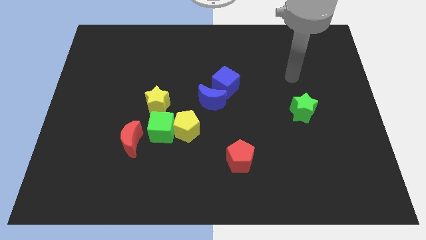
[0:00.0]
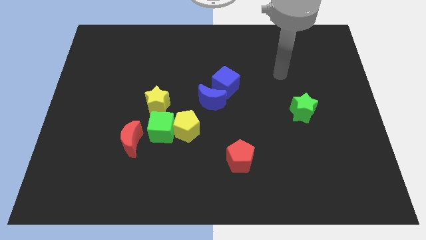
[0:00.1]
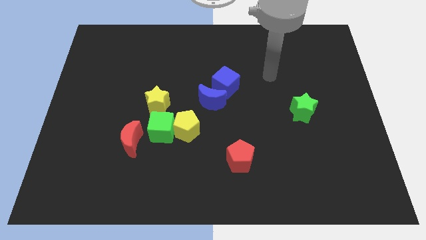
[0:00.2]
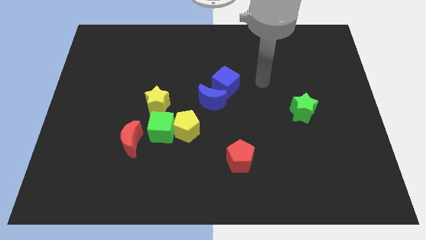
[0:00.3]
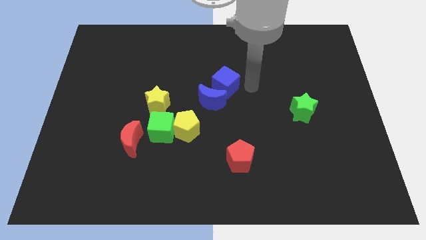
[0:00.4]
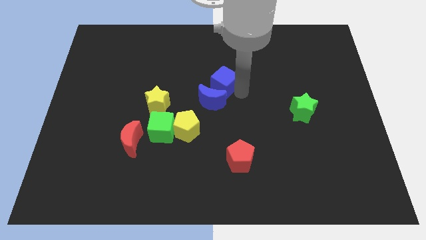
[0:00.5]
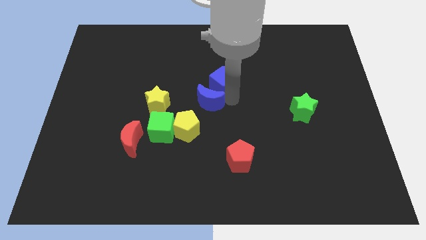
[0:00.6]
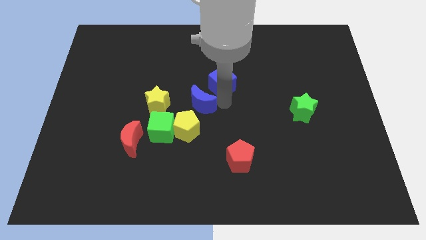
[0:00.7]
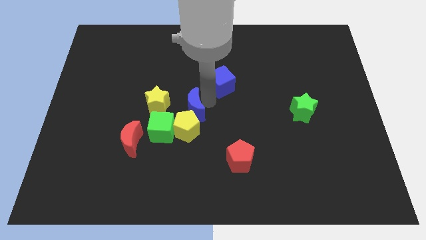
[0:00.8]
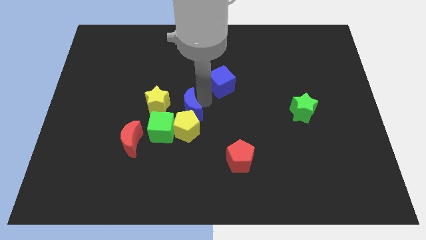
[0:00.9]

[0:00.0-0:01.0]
pull the blue cube apart from the blue moon

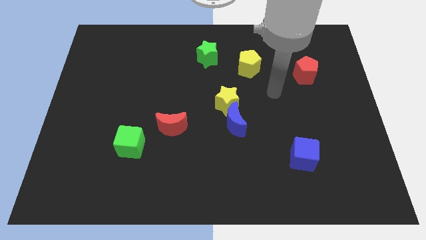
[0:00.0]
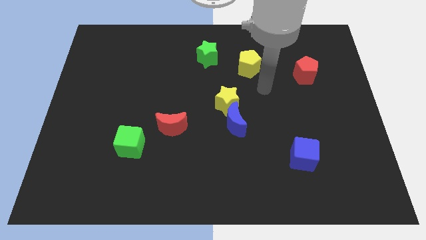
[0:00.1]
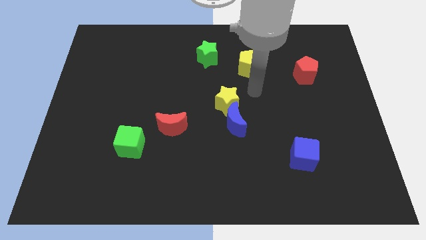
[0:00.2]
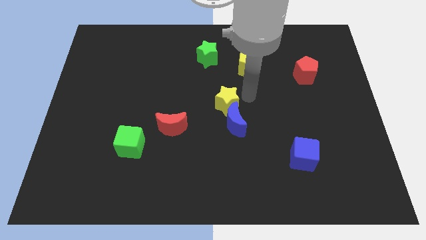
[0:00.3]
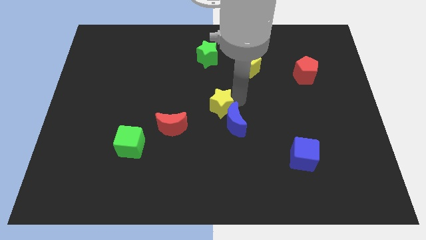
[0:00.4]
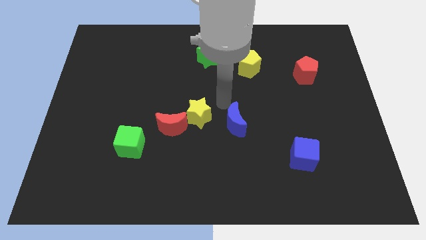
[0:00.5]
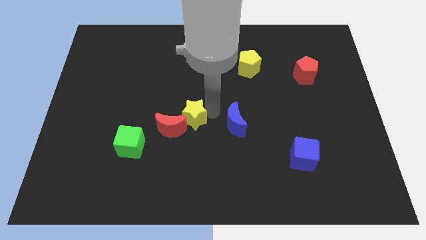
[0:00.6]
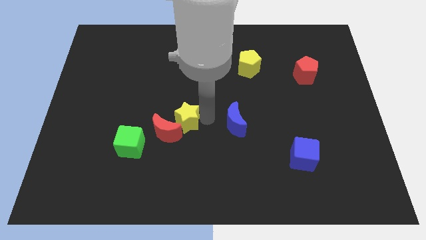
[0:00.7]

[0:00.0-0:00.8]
move the blue moon away from the yellow star

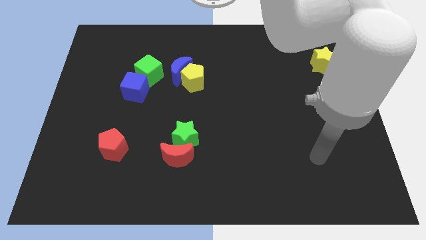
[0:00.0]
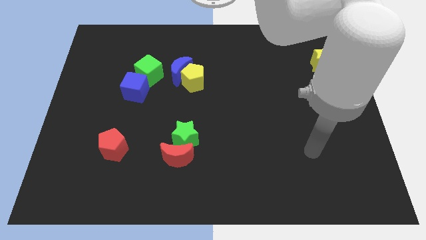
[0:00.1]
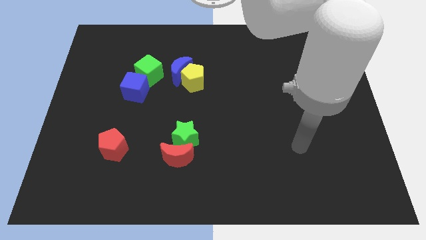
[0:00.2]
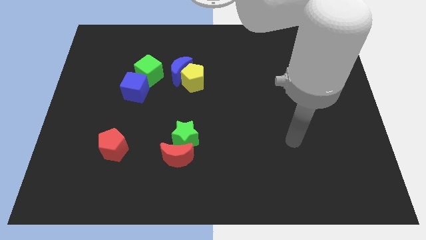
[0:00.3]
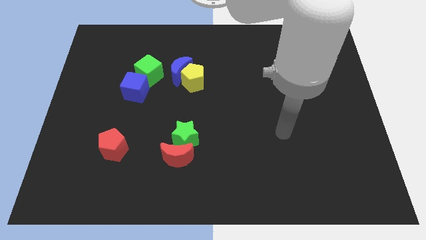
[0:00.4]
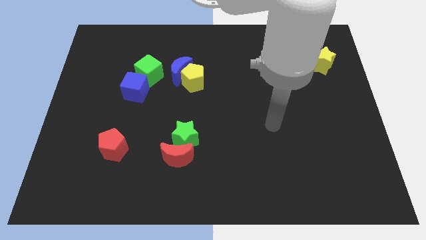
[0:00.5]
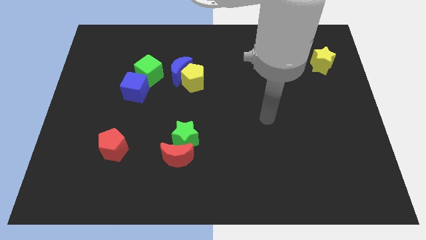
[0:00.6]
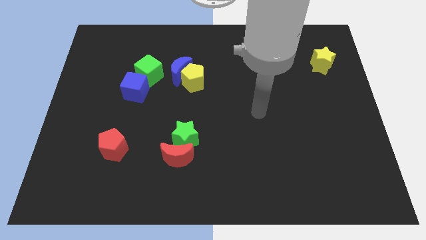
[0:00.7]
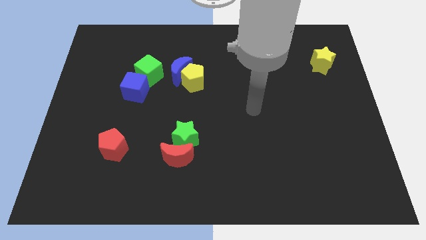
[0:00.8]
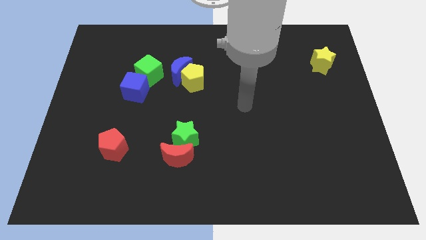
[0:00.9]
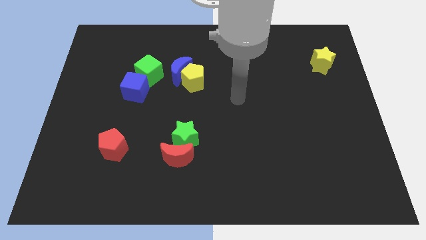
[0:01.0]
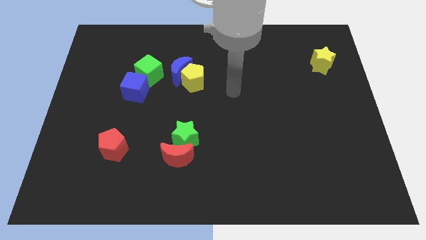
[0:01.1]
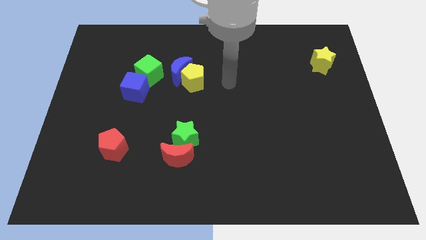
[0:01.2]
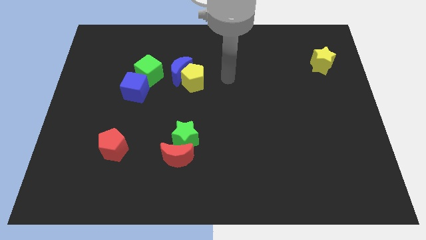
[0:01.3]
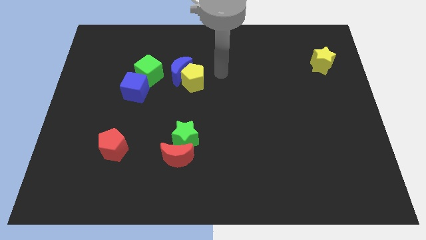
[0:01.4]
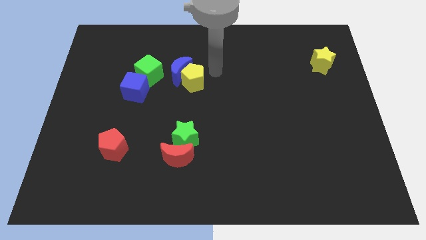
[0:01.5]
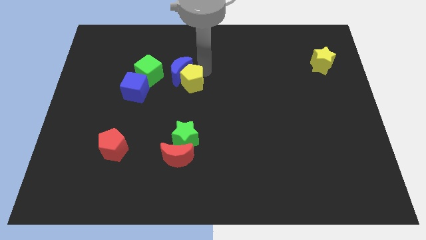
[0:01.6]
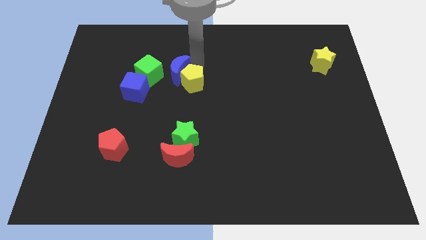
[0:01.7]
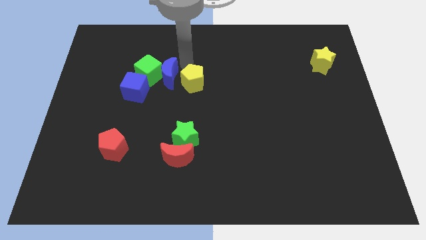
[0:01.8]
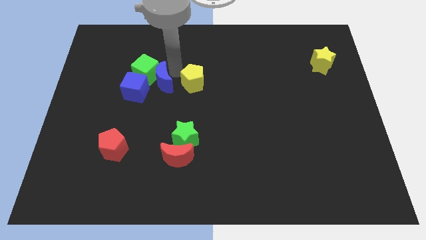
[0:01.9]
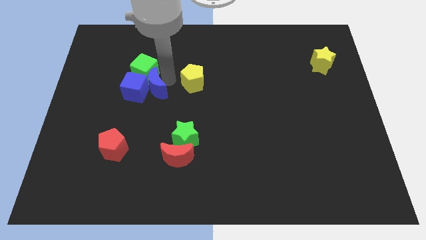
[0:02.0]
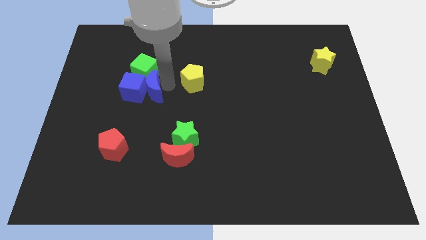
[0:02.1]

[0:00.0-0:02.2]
move the yellow pentagon away from the blue moon

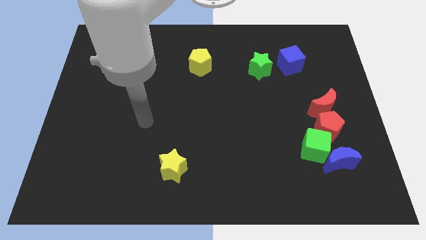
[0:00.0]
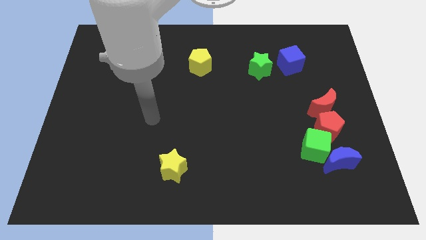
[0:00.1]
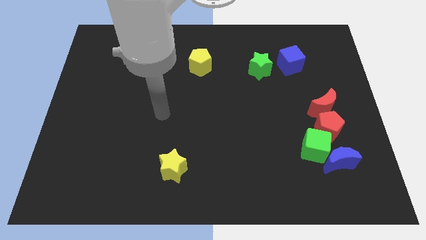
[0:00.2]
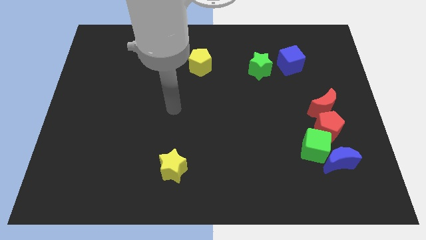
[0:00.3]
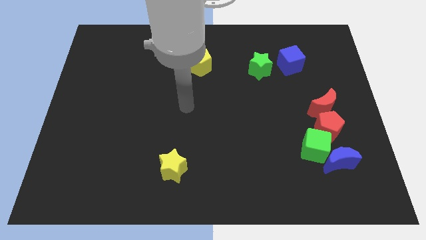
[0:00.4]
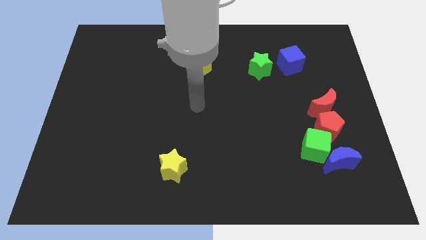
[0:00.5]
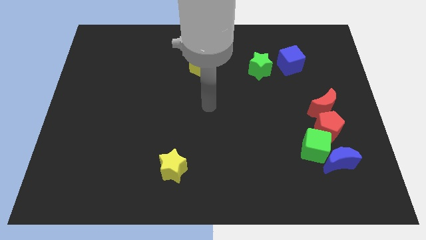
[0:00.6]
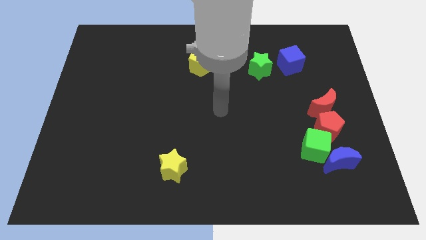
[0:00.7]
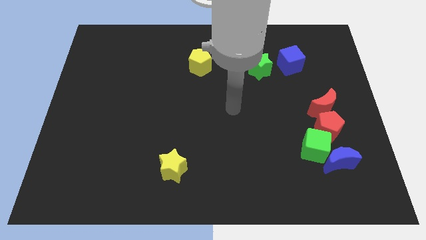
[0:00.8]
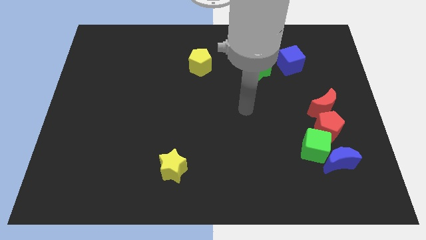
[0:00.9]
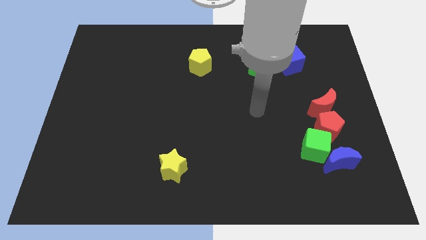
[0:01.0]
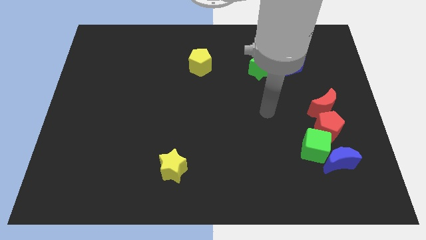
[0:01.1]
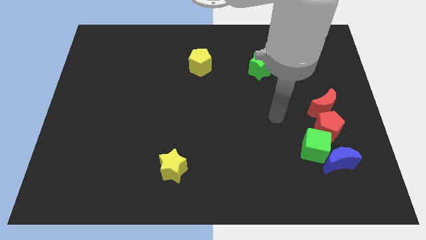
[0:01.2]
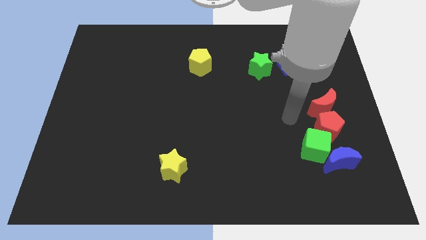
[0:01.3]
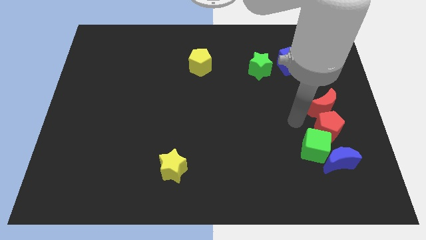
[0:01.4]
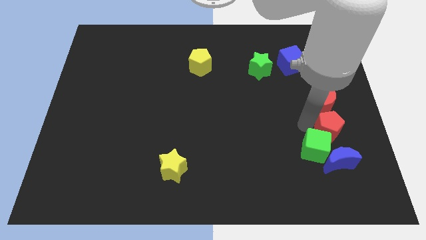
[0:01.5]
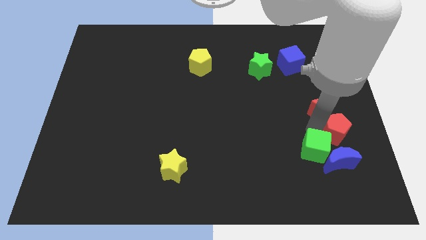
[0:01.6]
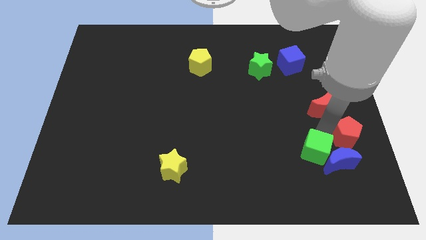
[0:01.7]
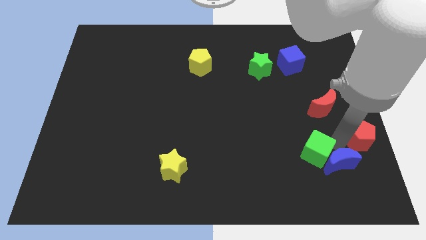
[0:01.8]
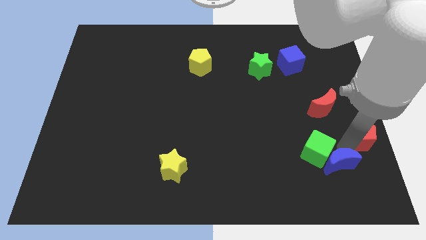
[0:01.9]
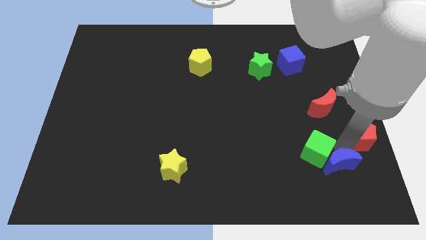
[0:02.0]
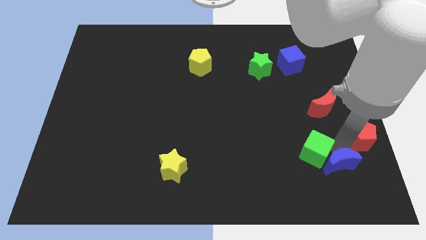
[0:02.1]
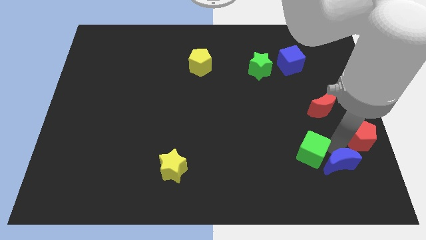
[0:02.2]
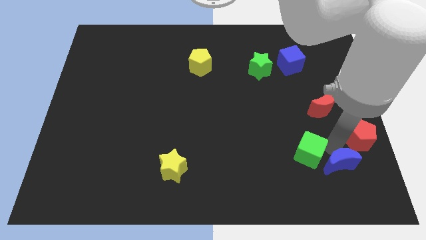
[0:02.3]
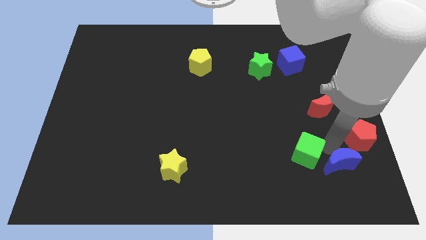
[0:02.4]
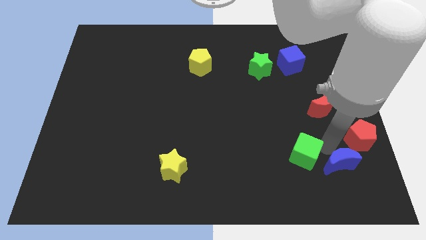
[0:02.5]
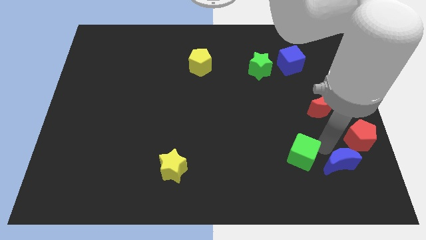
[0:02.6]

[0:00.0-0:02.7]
separate the green cube from the blue moon and red pentagon

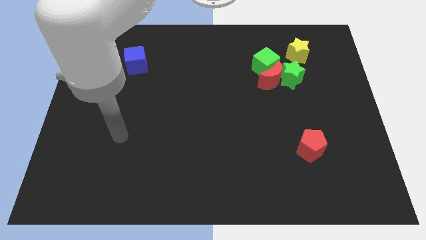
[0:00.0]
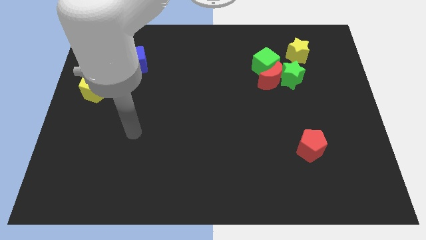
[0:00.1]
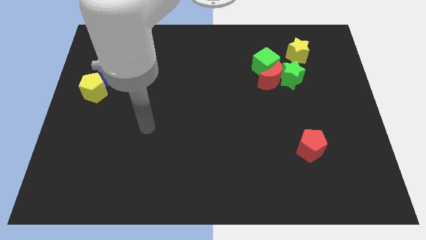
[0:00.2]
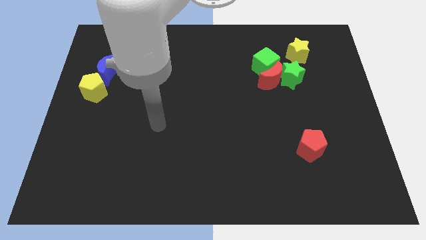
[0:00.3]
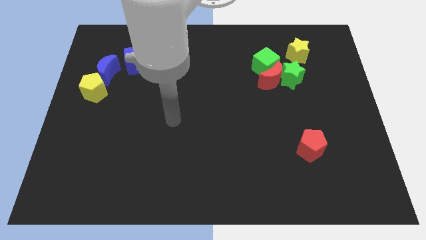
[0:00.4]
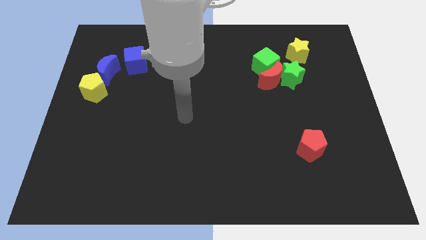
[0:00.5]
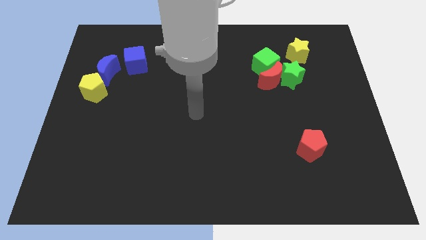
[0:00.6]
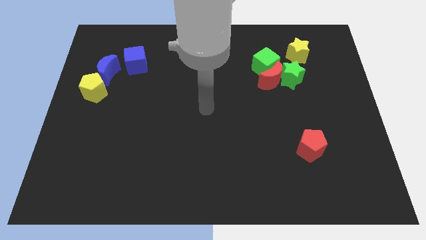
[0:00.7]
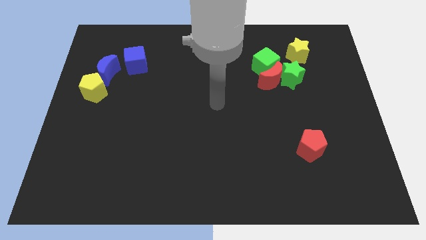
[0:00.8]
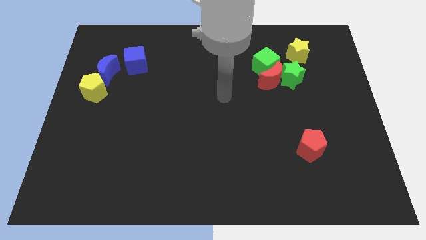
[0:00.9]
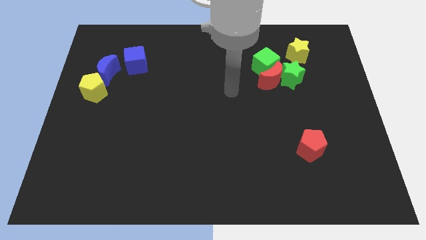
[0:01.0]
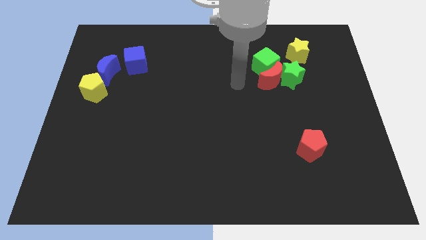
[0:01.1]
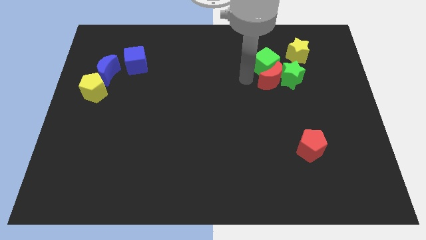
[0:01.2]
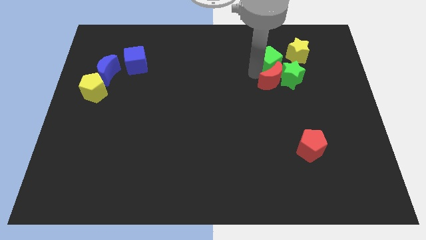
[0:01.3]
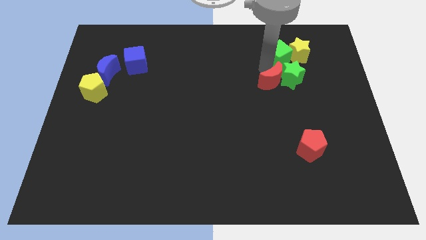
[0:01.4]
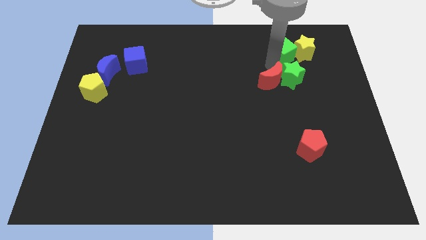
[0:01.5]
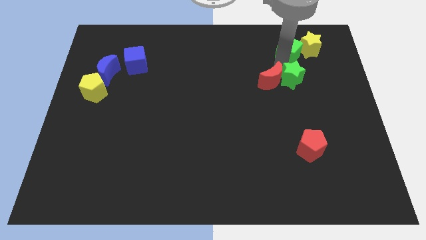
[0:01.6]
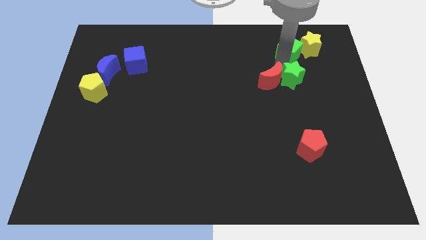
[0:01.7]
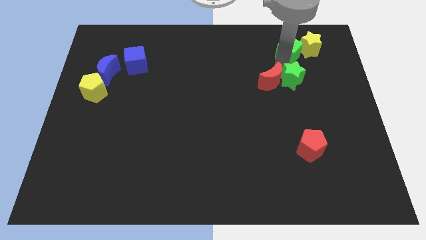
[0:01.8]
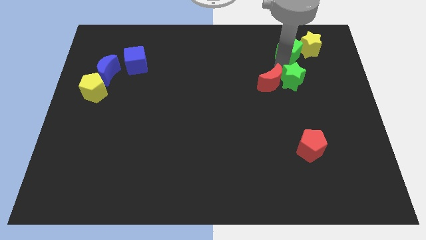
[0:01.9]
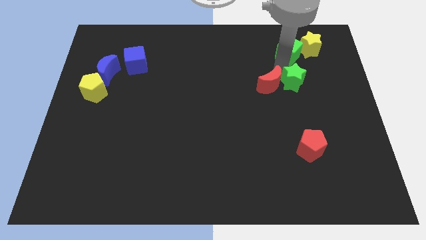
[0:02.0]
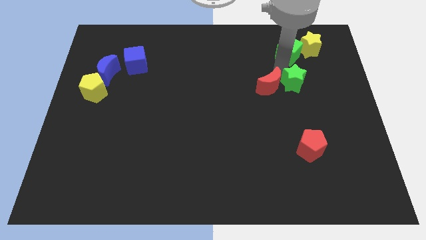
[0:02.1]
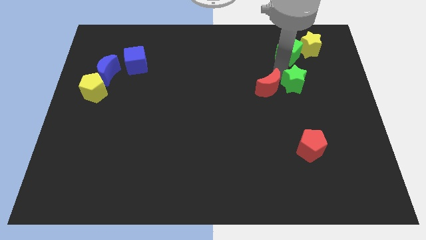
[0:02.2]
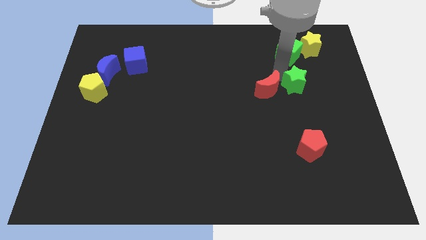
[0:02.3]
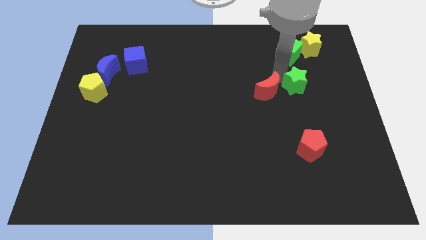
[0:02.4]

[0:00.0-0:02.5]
pull the red moon apart from the green star and green cube

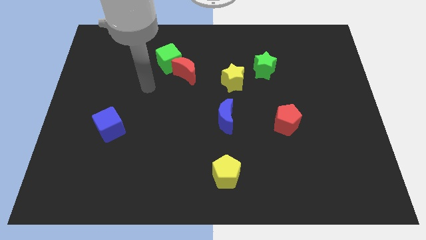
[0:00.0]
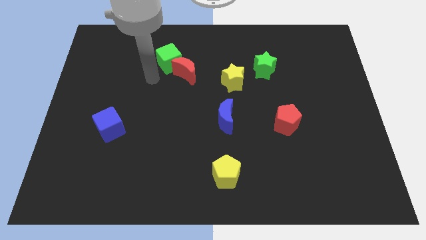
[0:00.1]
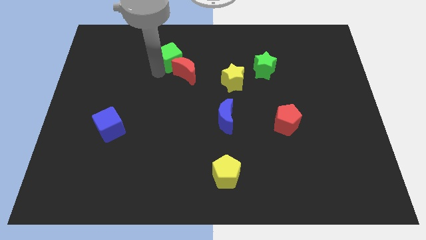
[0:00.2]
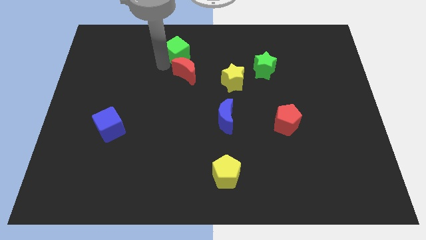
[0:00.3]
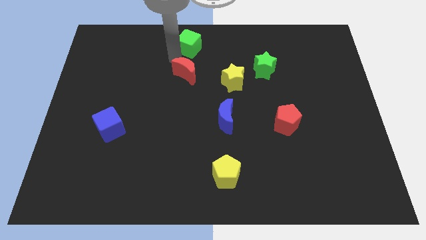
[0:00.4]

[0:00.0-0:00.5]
pull the red moon apart from the green cube
